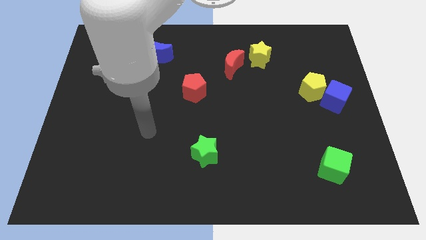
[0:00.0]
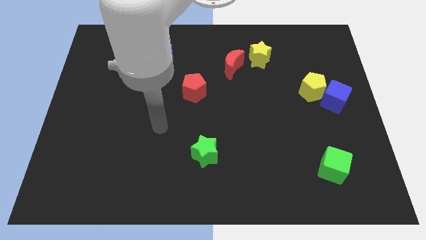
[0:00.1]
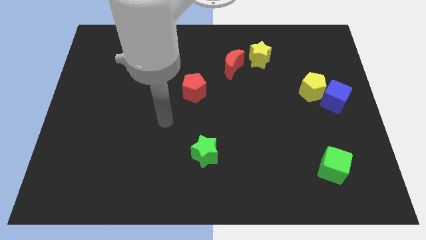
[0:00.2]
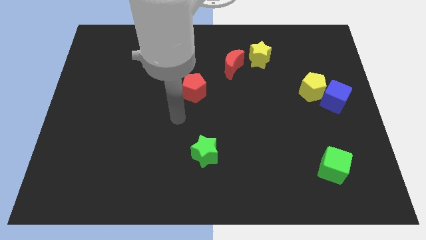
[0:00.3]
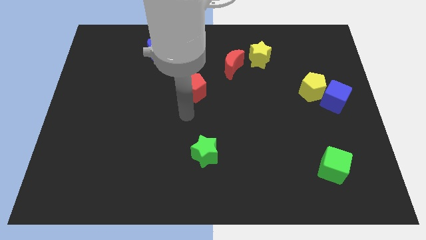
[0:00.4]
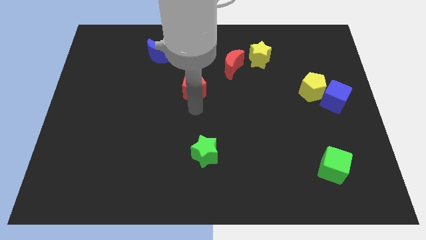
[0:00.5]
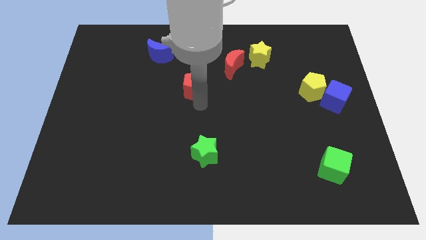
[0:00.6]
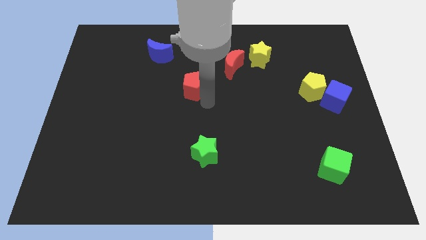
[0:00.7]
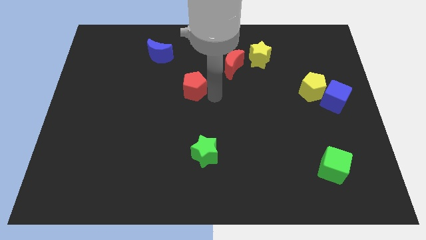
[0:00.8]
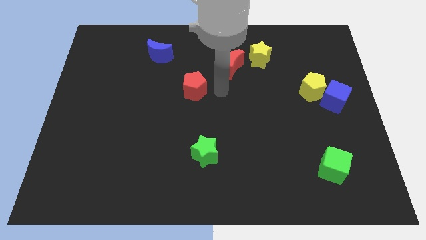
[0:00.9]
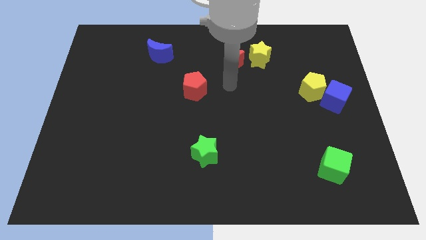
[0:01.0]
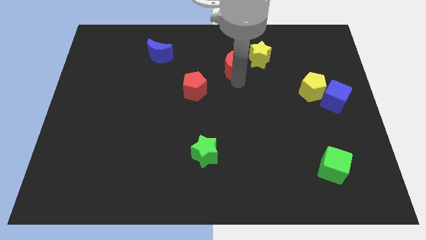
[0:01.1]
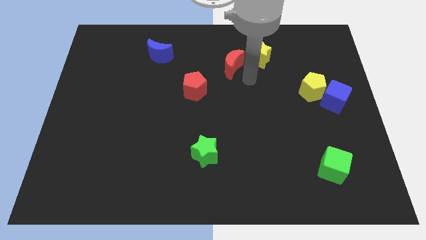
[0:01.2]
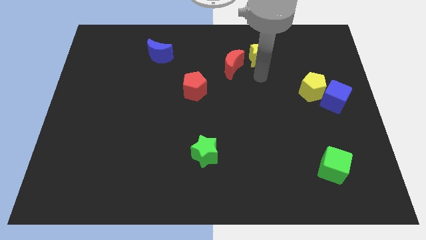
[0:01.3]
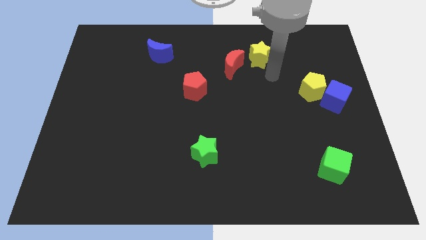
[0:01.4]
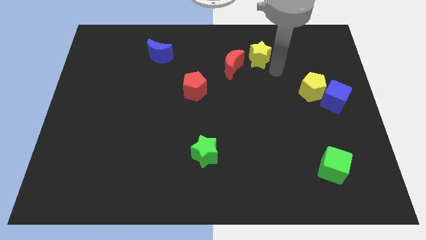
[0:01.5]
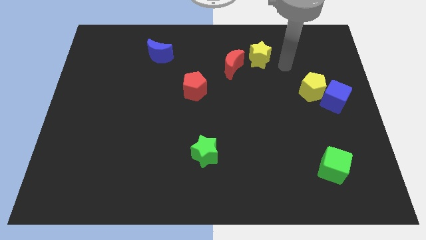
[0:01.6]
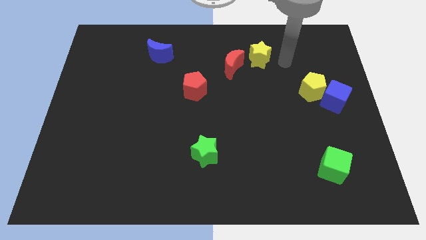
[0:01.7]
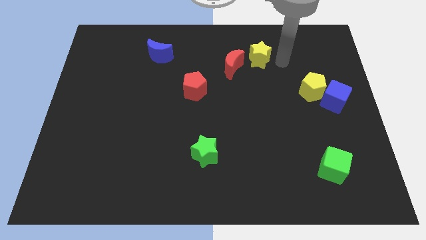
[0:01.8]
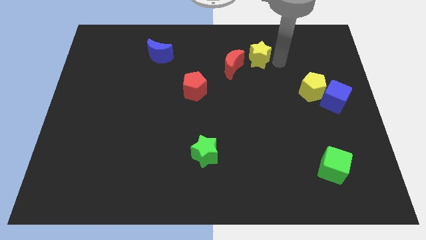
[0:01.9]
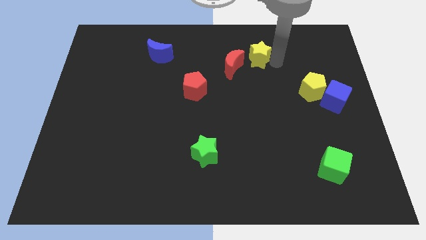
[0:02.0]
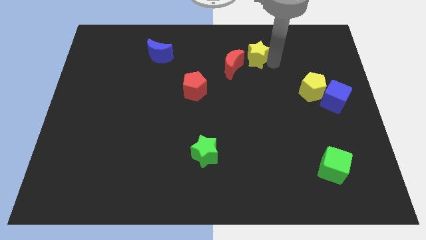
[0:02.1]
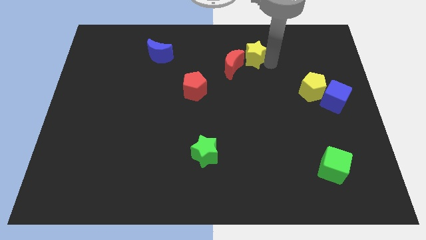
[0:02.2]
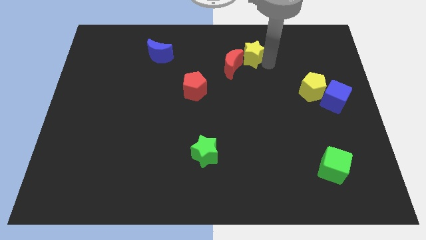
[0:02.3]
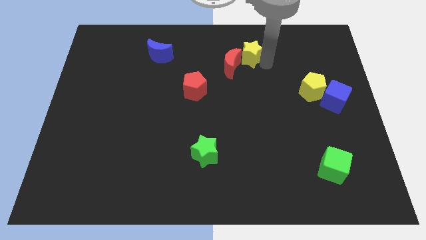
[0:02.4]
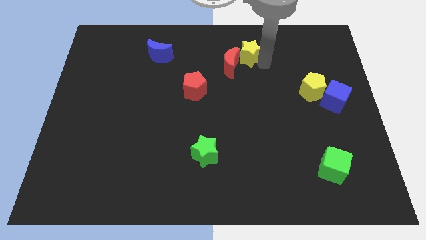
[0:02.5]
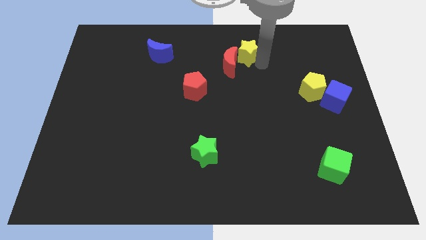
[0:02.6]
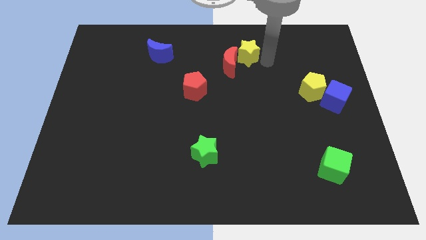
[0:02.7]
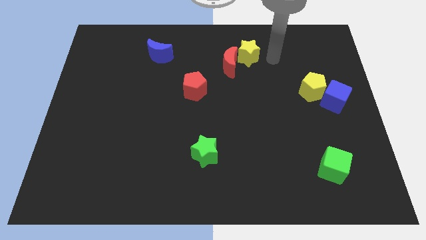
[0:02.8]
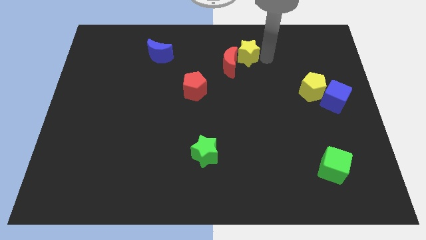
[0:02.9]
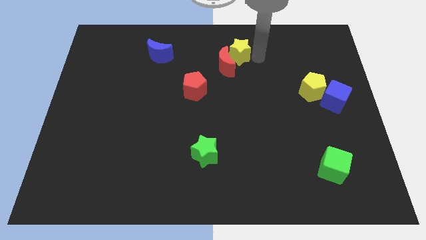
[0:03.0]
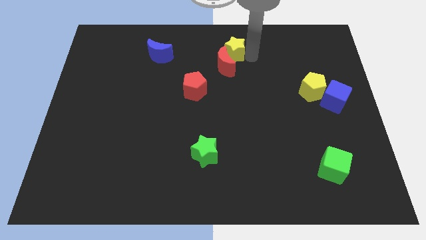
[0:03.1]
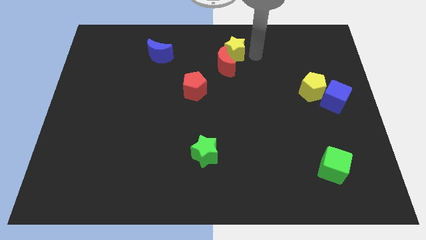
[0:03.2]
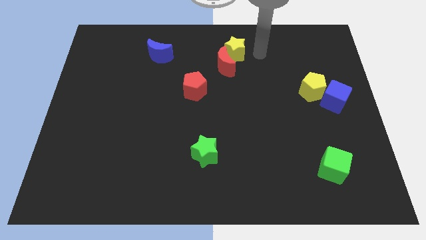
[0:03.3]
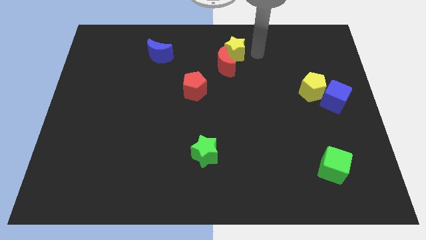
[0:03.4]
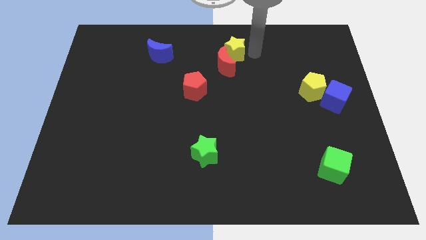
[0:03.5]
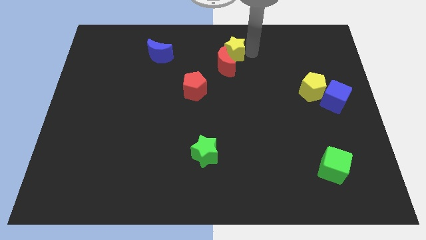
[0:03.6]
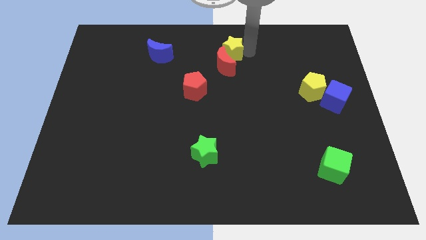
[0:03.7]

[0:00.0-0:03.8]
push the yellow star to the left a little

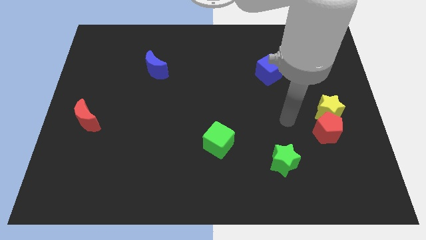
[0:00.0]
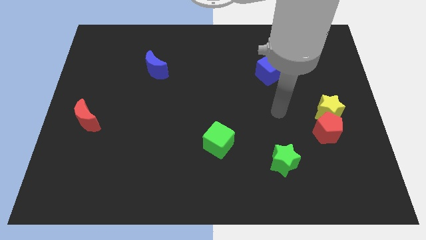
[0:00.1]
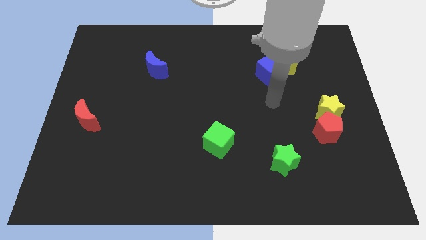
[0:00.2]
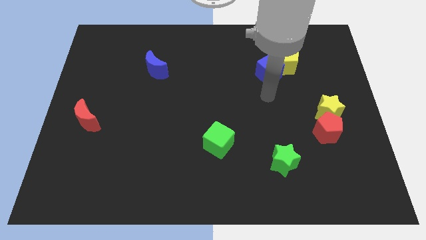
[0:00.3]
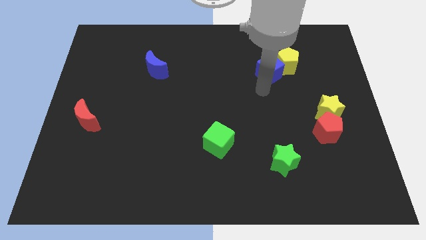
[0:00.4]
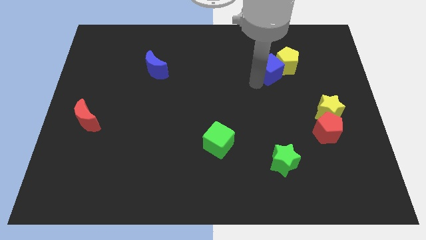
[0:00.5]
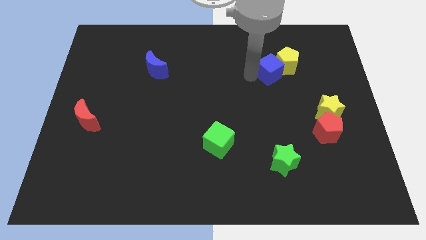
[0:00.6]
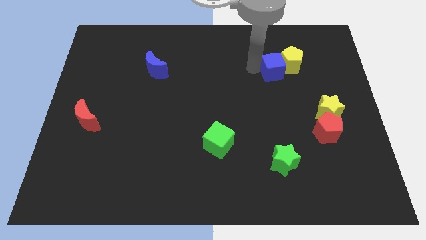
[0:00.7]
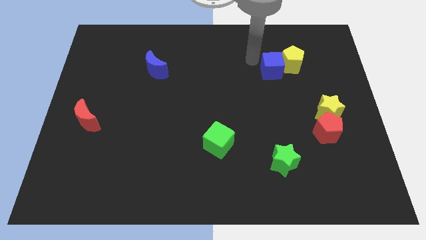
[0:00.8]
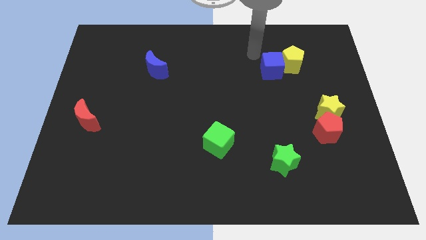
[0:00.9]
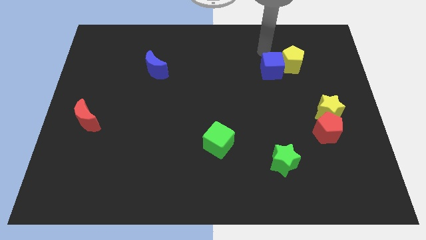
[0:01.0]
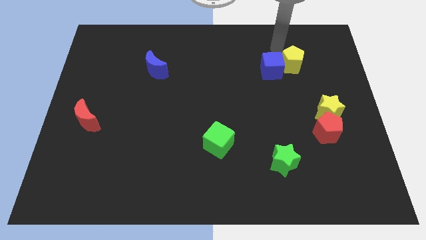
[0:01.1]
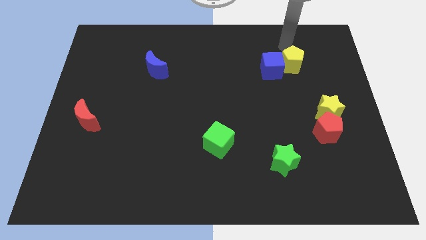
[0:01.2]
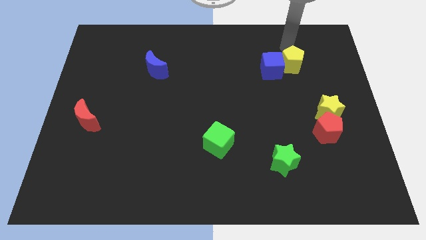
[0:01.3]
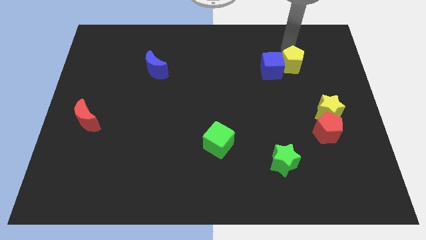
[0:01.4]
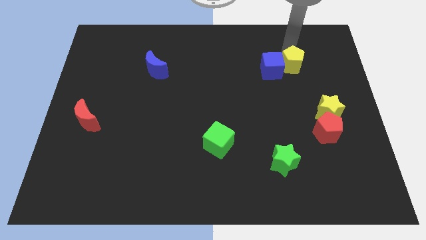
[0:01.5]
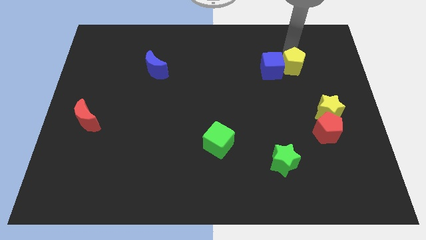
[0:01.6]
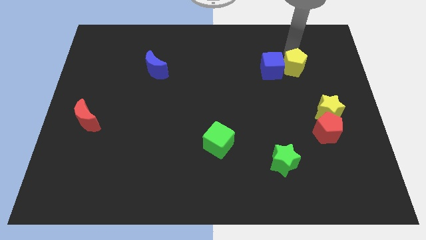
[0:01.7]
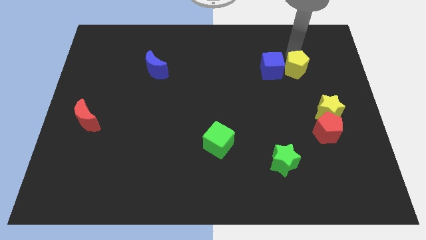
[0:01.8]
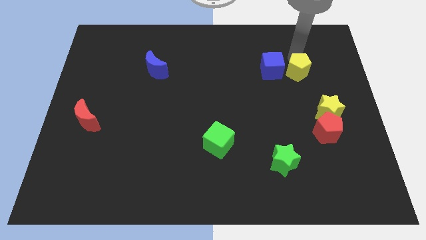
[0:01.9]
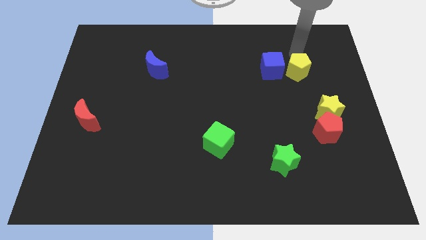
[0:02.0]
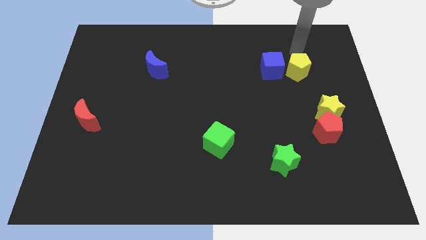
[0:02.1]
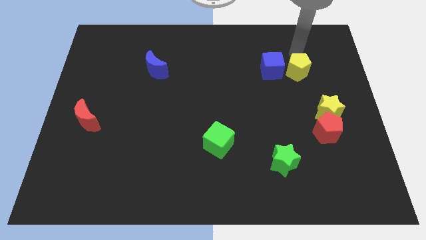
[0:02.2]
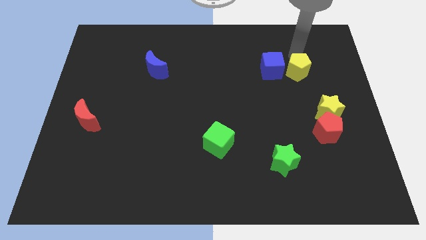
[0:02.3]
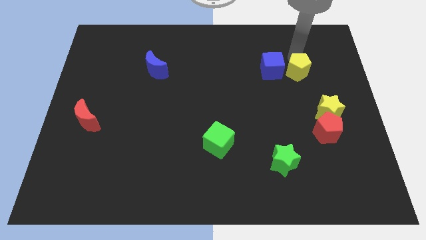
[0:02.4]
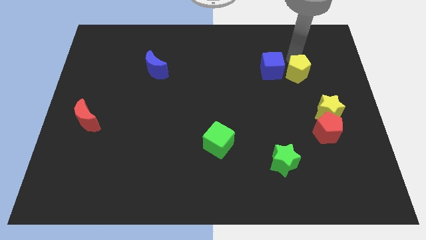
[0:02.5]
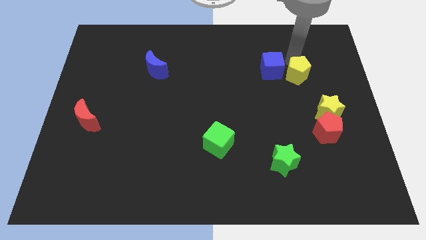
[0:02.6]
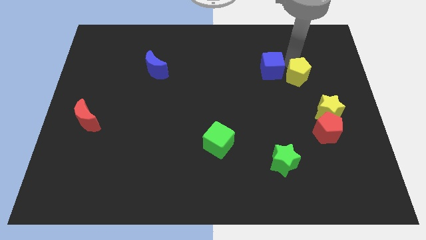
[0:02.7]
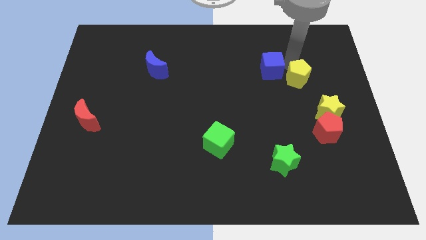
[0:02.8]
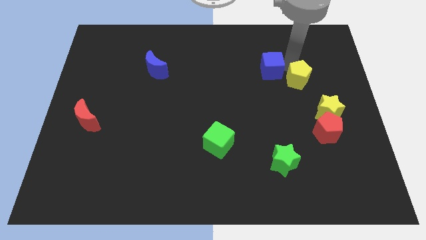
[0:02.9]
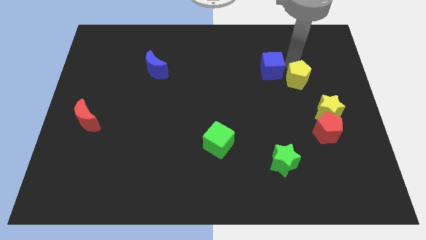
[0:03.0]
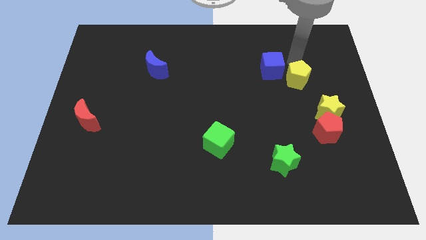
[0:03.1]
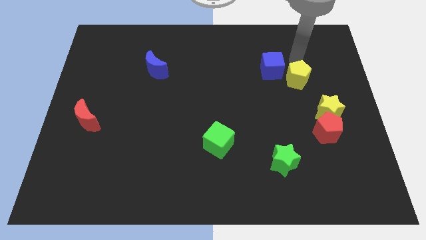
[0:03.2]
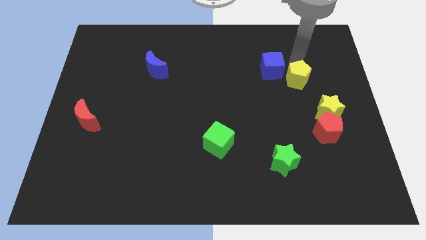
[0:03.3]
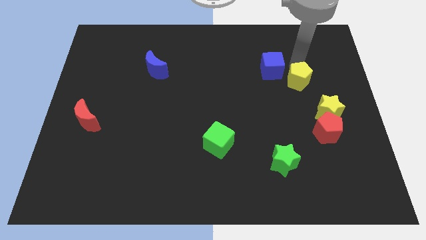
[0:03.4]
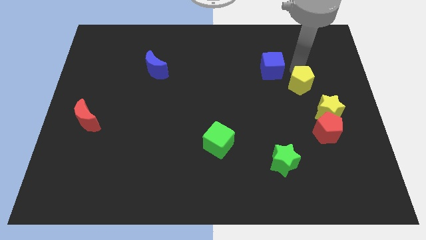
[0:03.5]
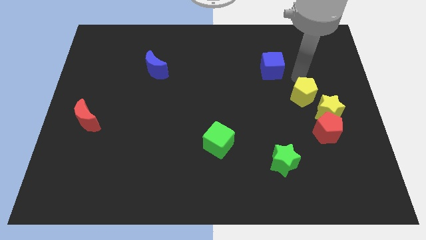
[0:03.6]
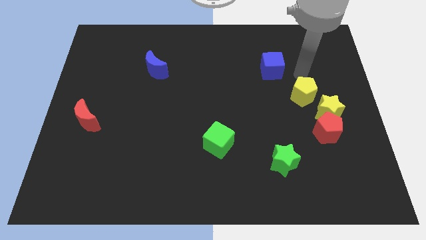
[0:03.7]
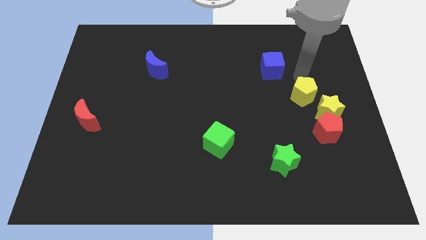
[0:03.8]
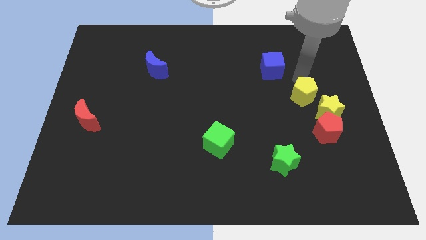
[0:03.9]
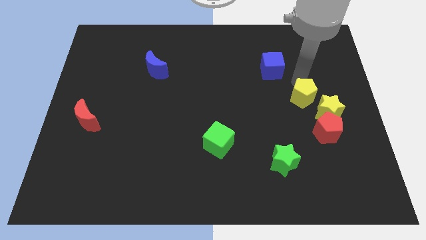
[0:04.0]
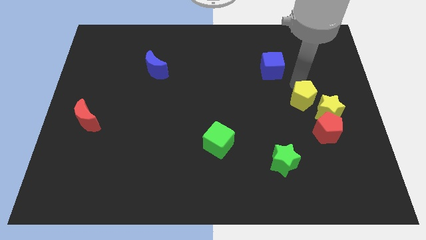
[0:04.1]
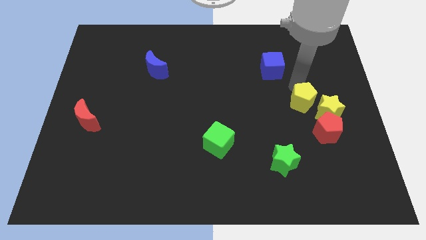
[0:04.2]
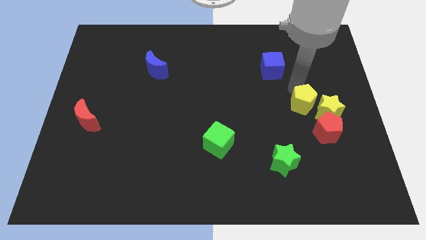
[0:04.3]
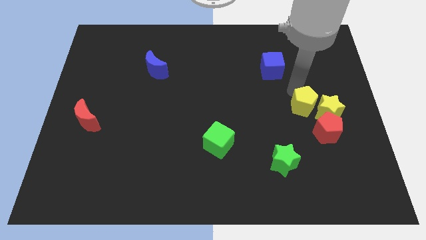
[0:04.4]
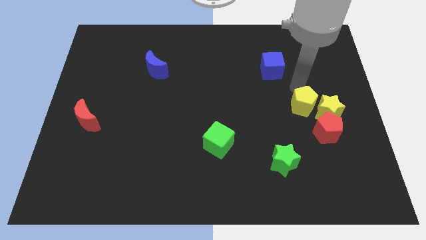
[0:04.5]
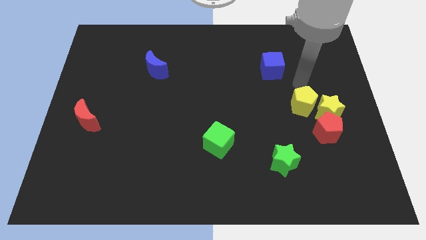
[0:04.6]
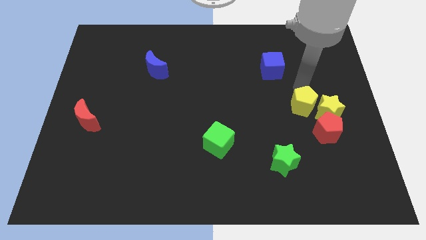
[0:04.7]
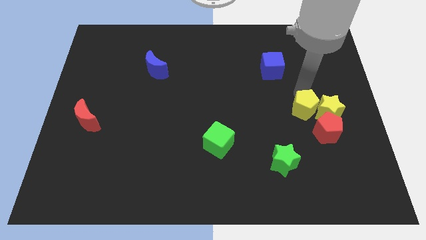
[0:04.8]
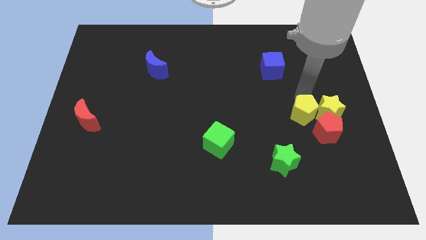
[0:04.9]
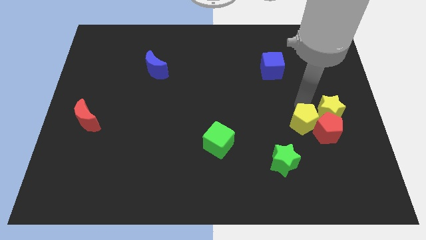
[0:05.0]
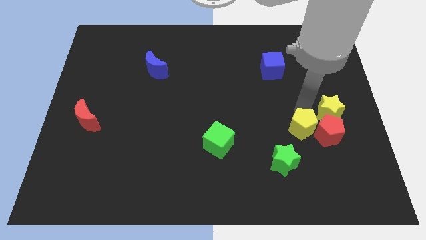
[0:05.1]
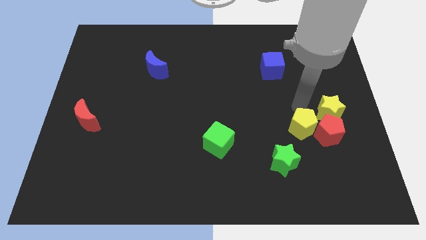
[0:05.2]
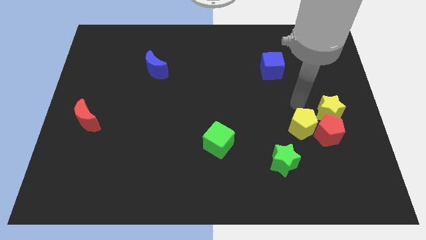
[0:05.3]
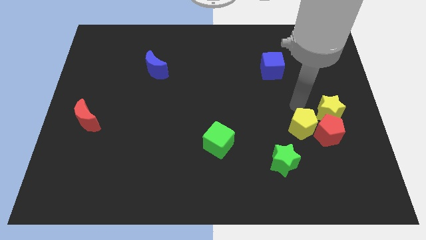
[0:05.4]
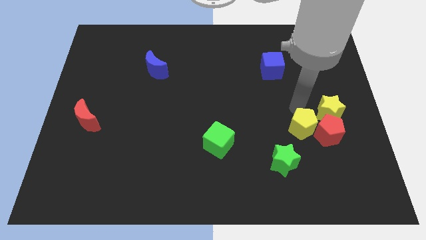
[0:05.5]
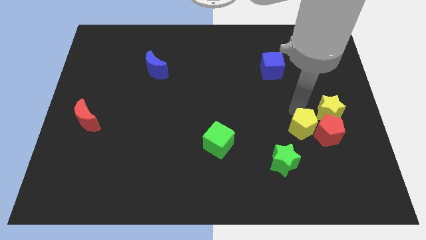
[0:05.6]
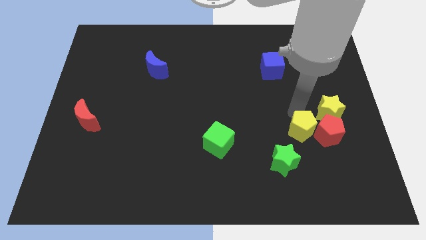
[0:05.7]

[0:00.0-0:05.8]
push the yellow pentagon down
